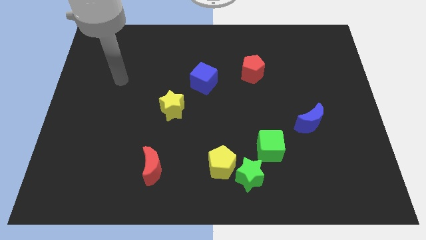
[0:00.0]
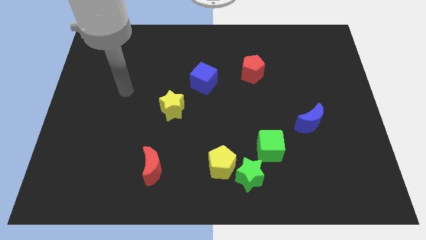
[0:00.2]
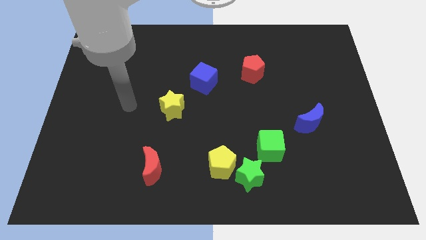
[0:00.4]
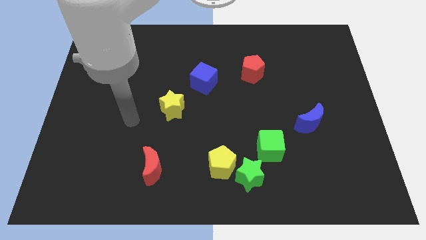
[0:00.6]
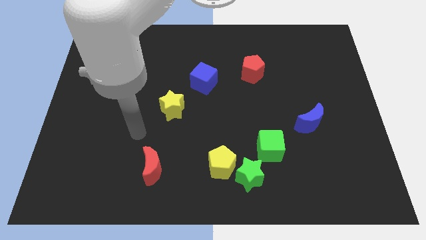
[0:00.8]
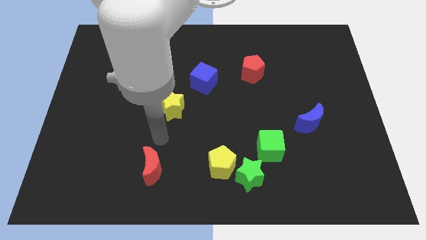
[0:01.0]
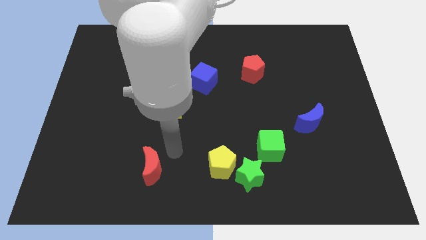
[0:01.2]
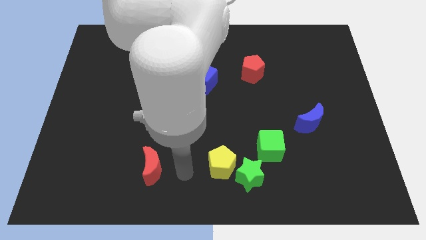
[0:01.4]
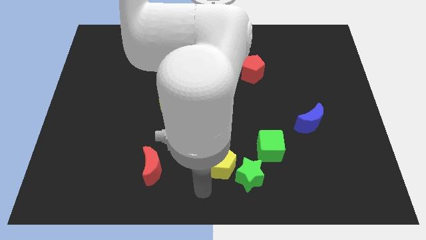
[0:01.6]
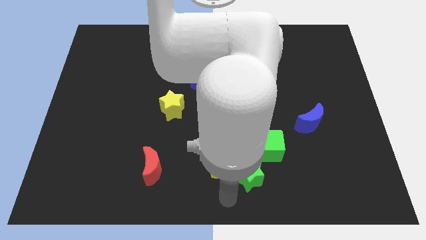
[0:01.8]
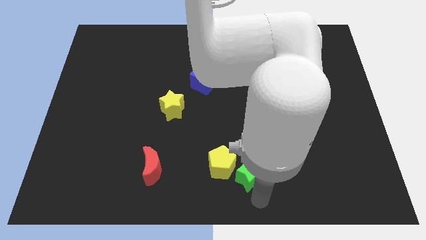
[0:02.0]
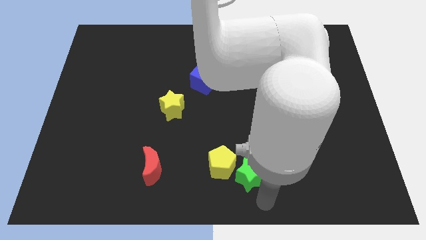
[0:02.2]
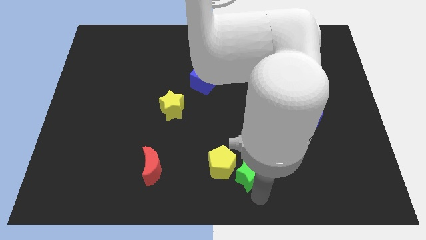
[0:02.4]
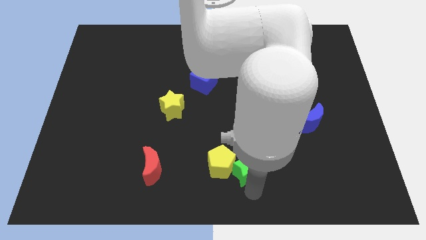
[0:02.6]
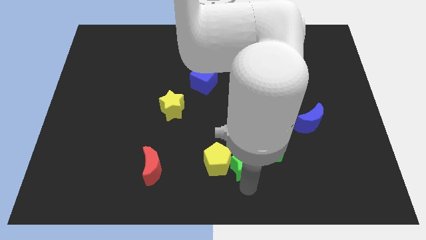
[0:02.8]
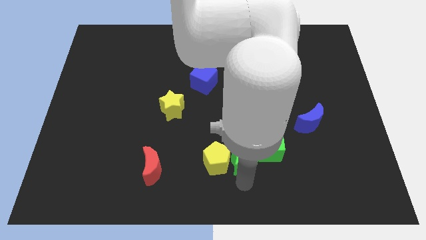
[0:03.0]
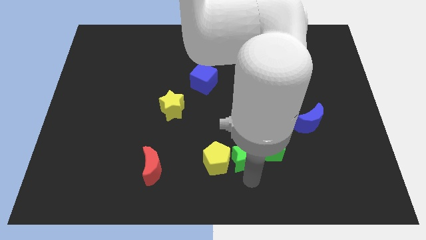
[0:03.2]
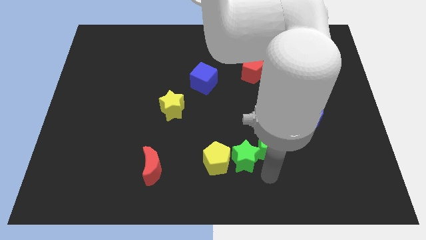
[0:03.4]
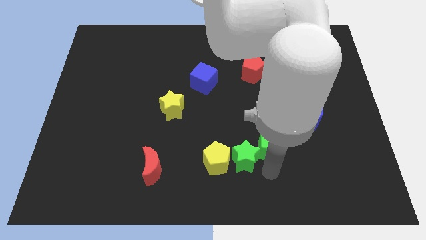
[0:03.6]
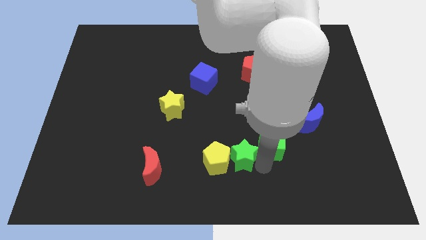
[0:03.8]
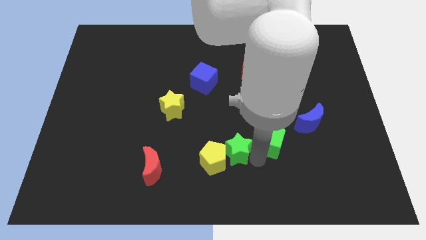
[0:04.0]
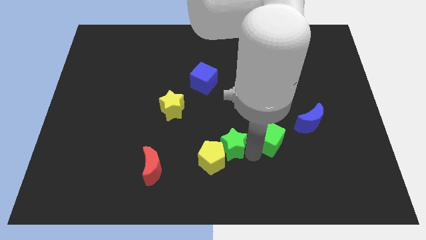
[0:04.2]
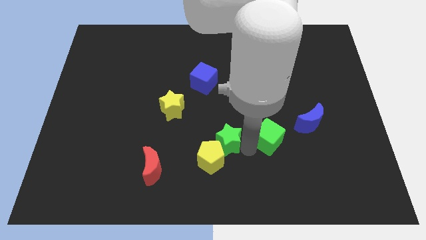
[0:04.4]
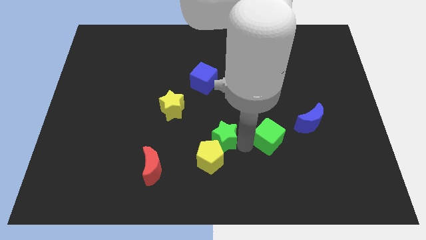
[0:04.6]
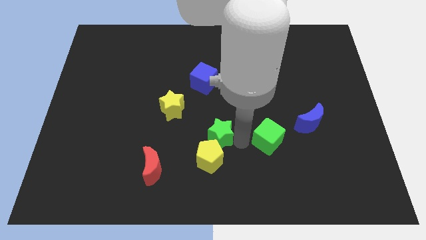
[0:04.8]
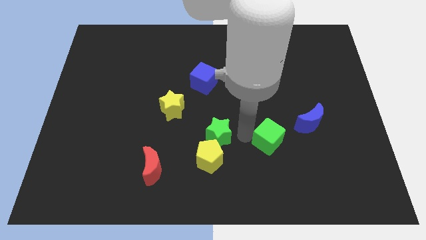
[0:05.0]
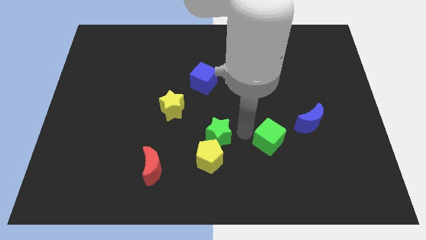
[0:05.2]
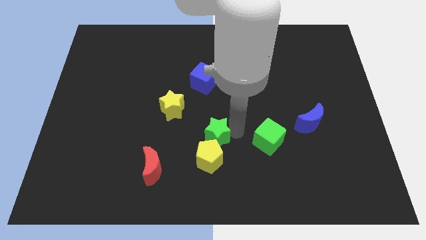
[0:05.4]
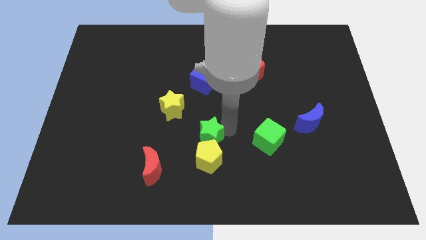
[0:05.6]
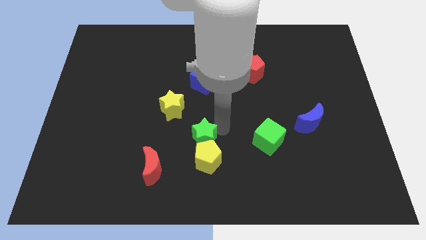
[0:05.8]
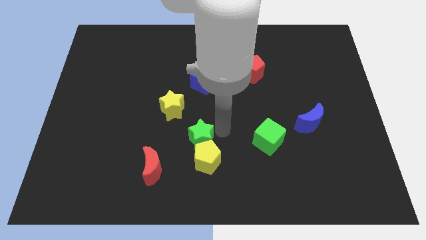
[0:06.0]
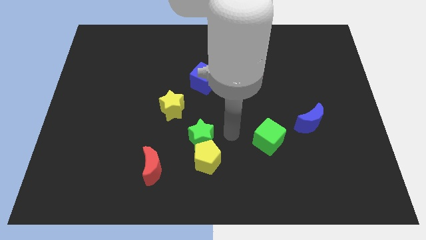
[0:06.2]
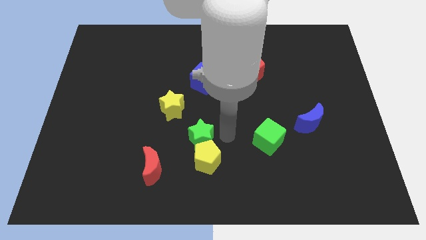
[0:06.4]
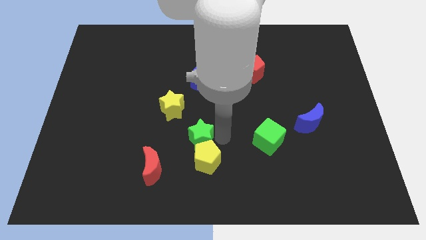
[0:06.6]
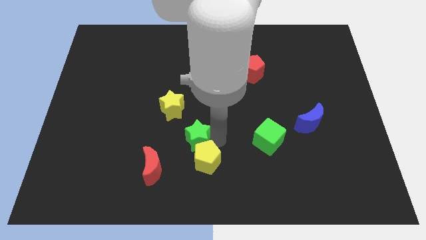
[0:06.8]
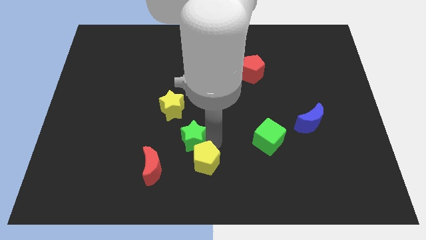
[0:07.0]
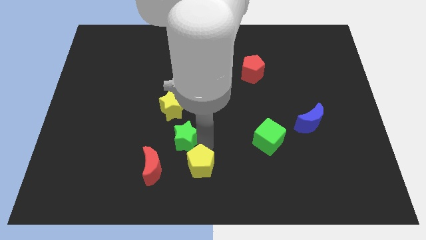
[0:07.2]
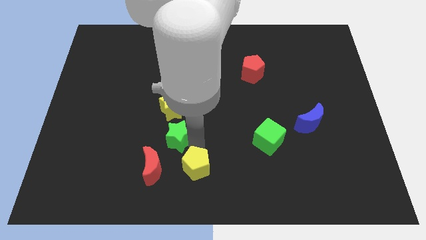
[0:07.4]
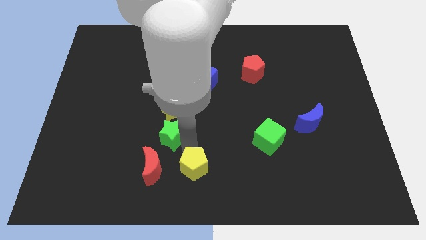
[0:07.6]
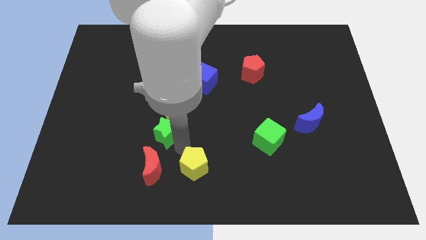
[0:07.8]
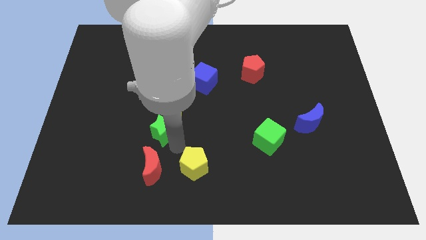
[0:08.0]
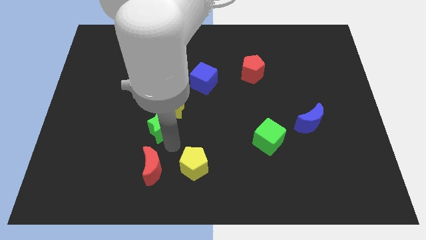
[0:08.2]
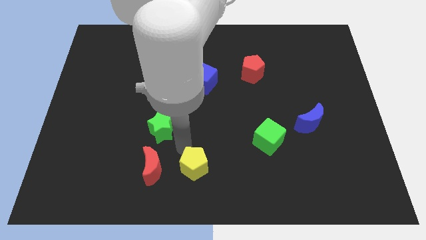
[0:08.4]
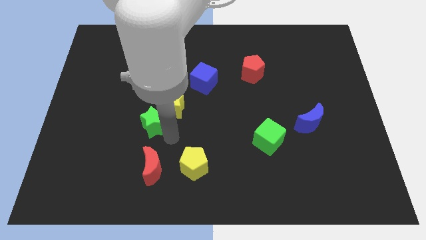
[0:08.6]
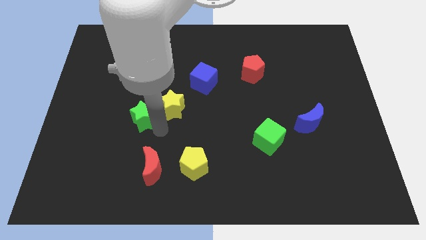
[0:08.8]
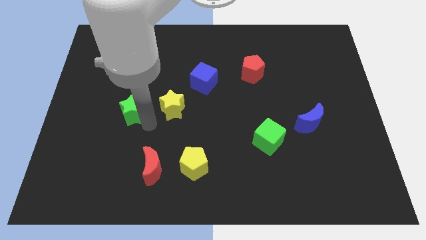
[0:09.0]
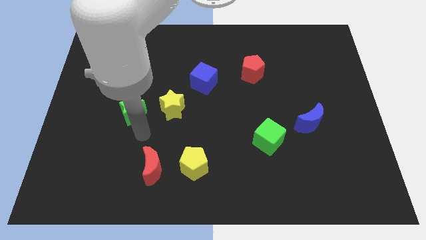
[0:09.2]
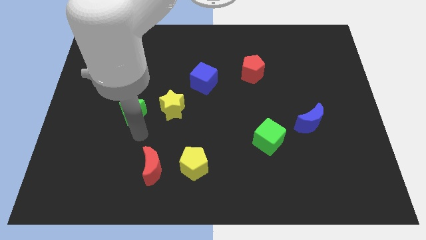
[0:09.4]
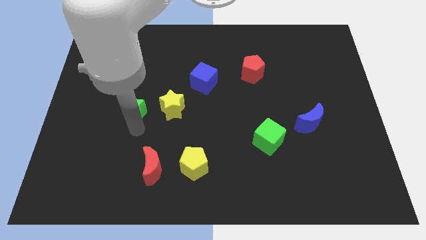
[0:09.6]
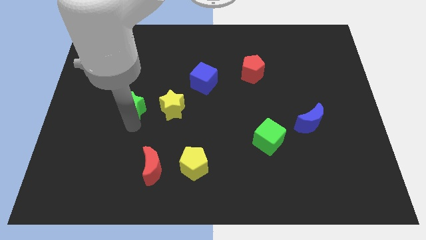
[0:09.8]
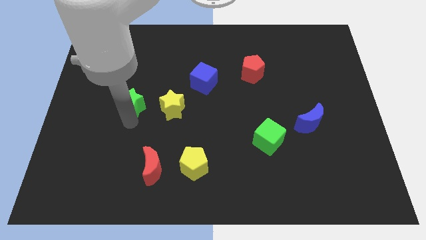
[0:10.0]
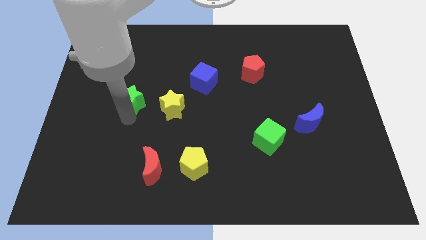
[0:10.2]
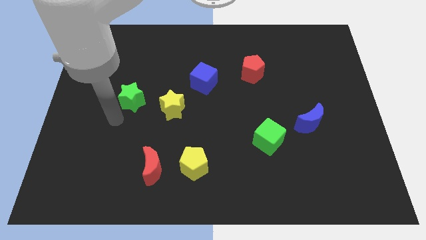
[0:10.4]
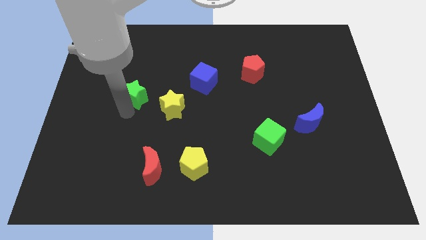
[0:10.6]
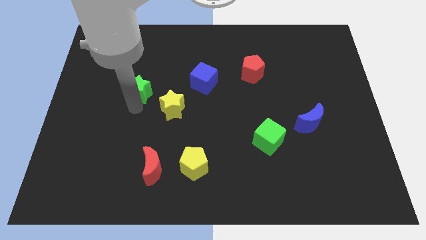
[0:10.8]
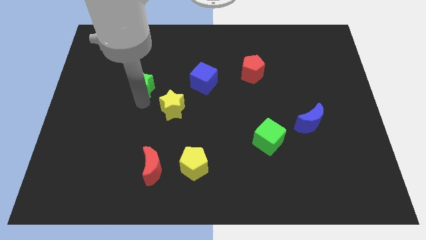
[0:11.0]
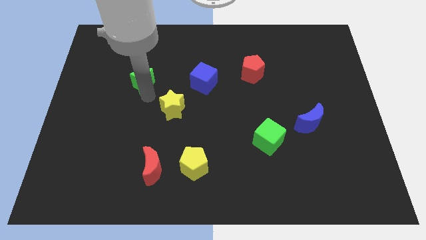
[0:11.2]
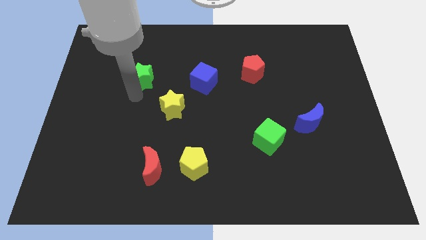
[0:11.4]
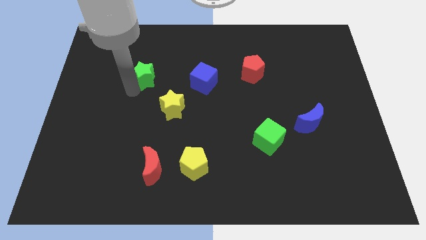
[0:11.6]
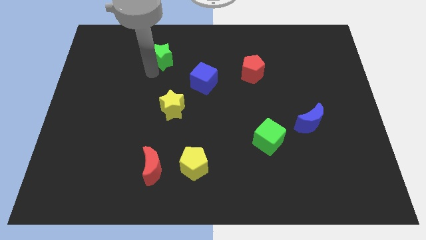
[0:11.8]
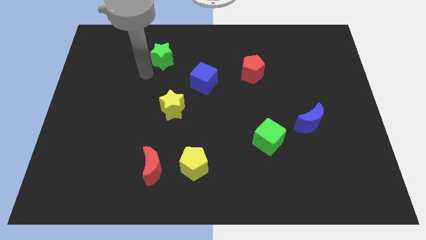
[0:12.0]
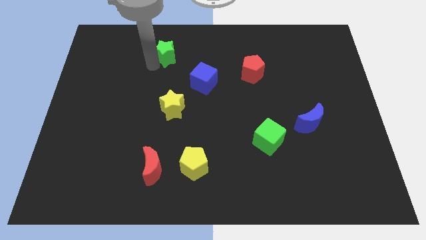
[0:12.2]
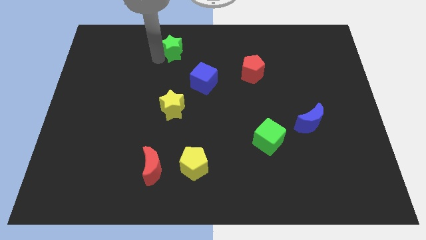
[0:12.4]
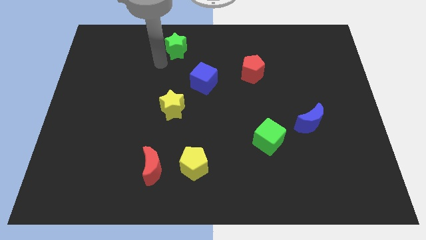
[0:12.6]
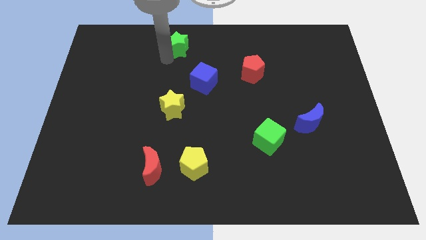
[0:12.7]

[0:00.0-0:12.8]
push the green star to the top side
